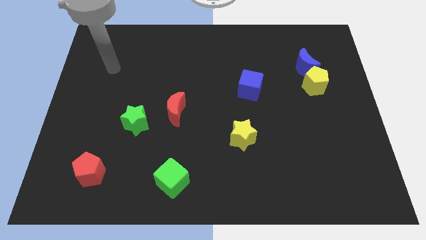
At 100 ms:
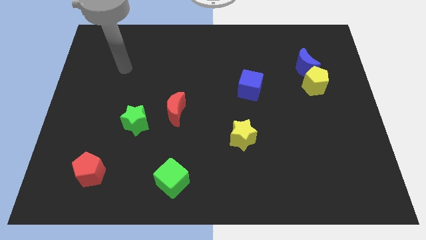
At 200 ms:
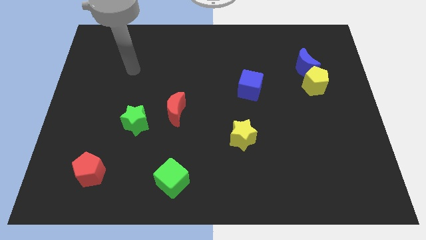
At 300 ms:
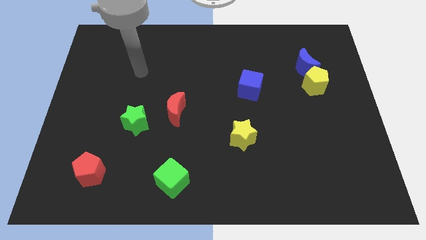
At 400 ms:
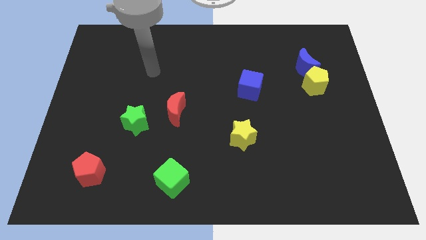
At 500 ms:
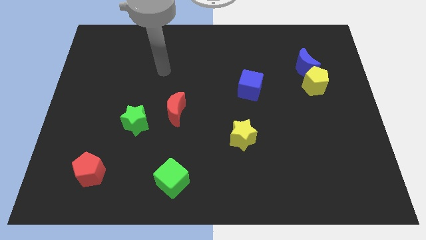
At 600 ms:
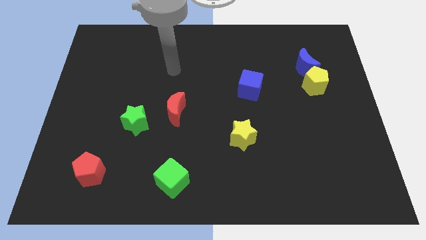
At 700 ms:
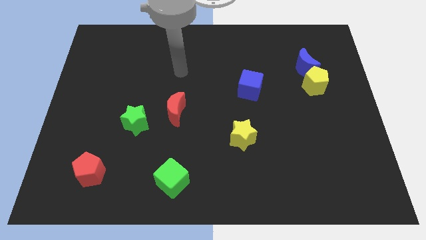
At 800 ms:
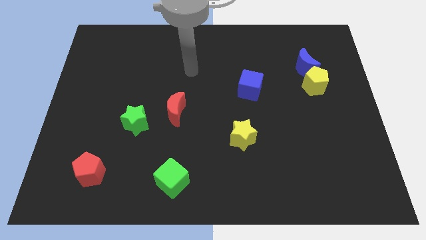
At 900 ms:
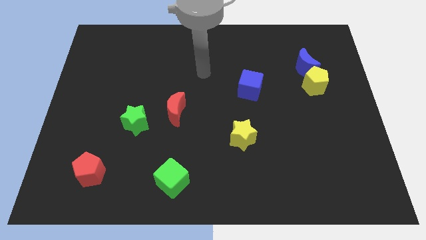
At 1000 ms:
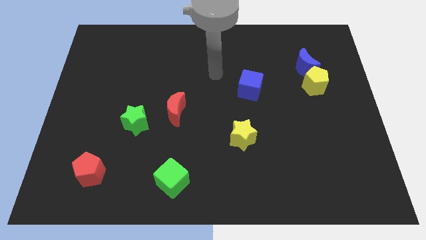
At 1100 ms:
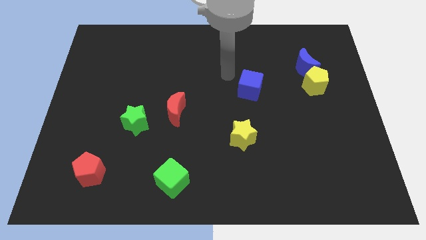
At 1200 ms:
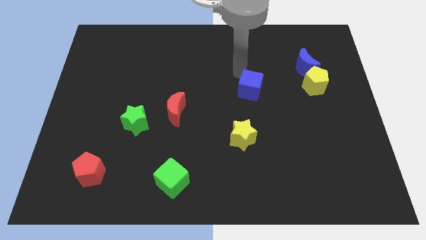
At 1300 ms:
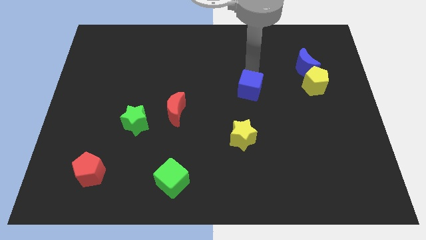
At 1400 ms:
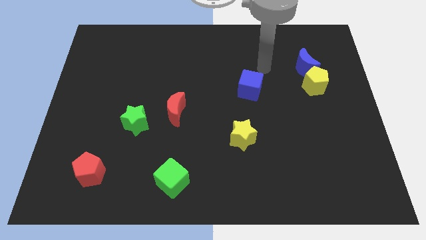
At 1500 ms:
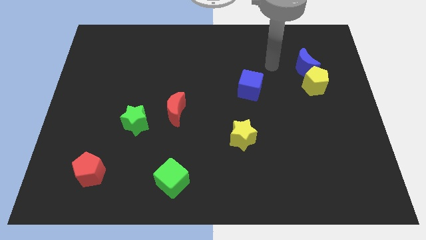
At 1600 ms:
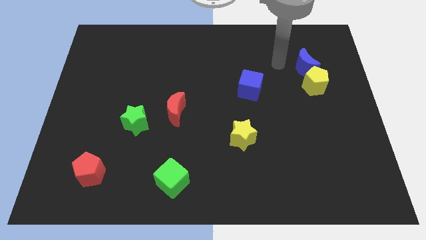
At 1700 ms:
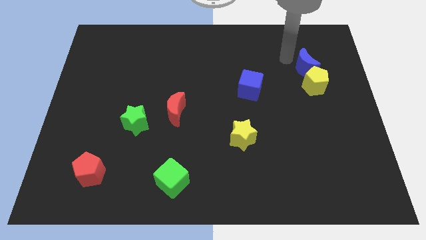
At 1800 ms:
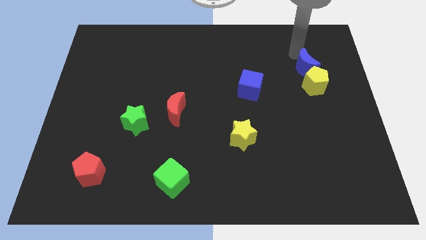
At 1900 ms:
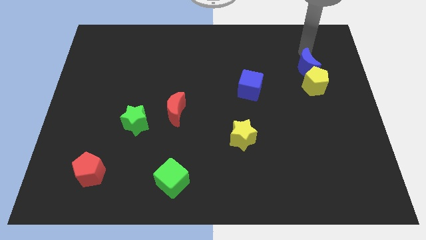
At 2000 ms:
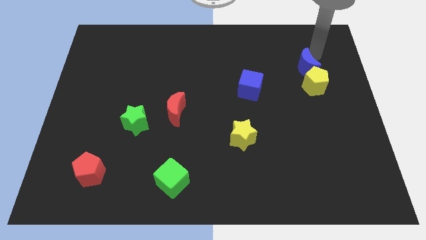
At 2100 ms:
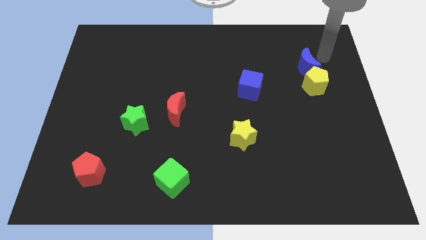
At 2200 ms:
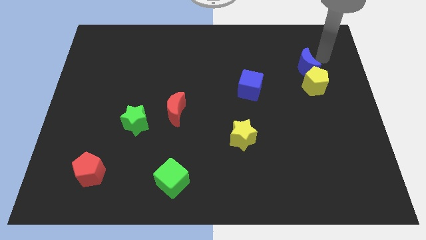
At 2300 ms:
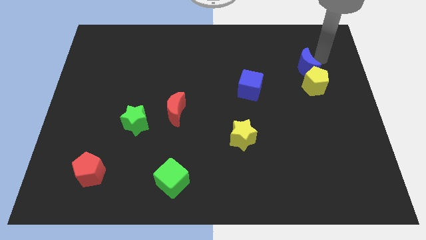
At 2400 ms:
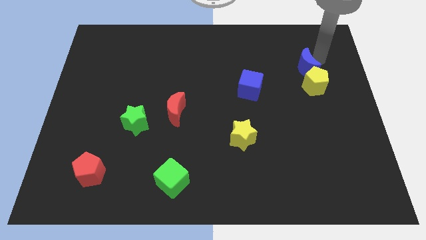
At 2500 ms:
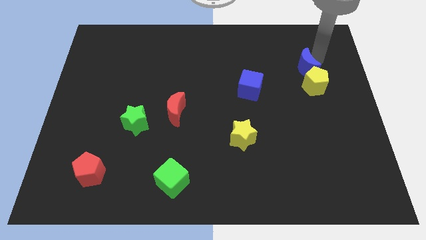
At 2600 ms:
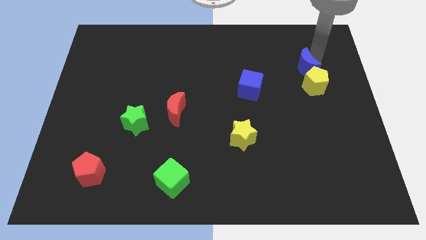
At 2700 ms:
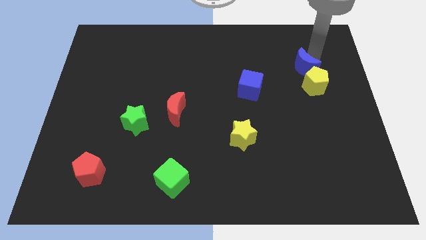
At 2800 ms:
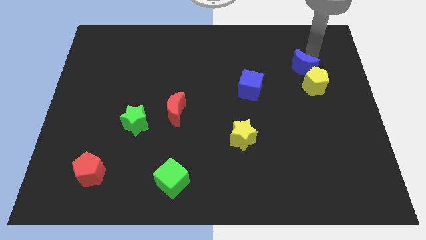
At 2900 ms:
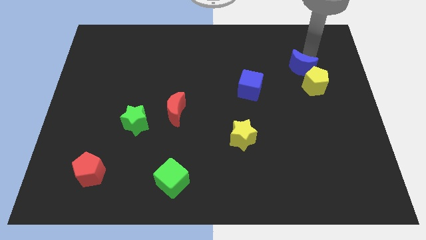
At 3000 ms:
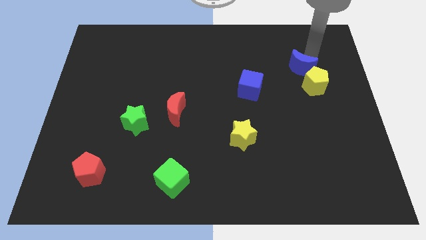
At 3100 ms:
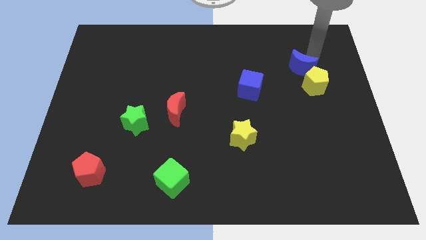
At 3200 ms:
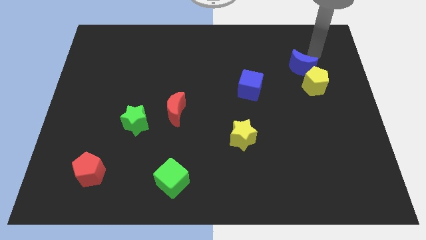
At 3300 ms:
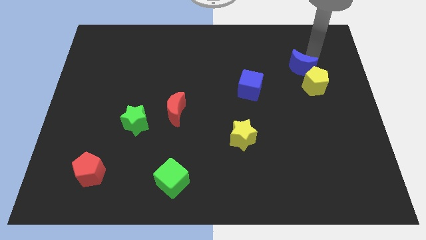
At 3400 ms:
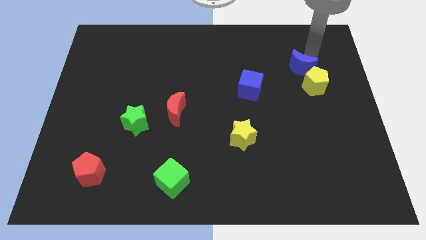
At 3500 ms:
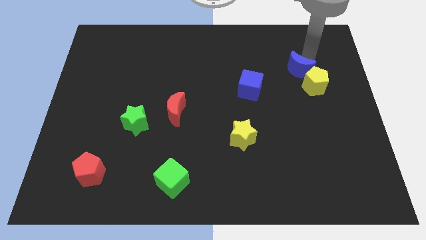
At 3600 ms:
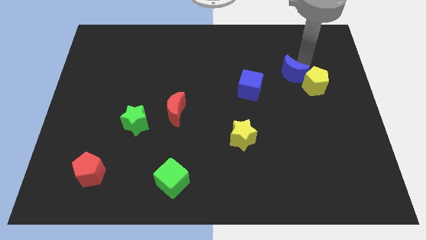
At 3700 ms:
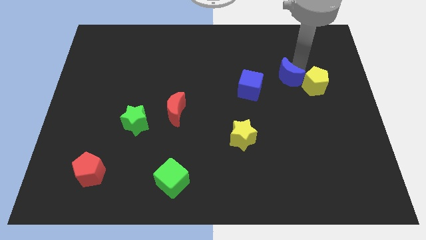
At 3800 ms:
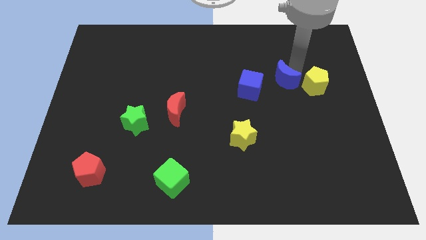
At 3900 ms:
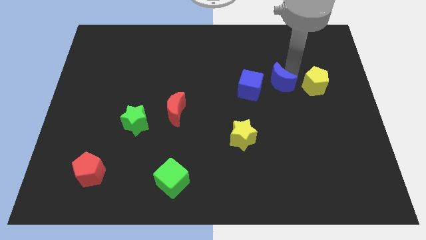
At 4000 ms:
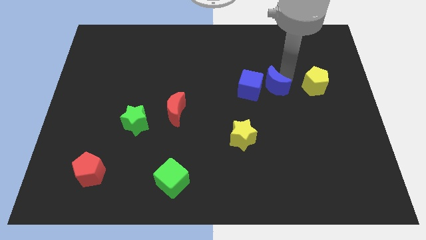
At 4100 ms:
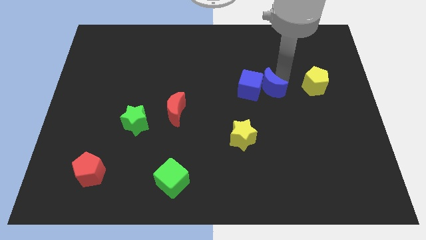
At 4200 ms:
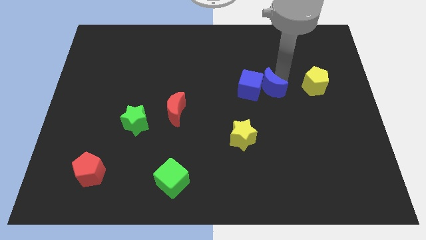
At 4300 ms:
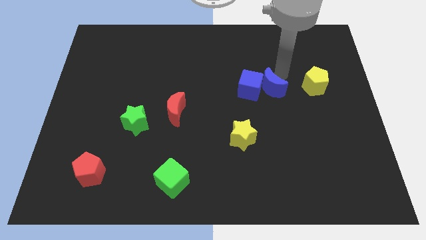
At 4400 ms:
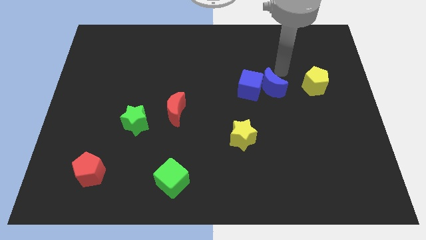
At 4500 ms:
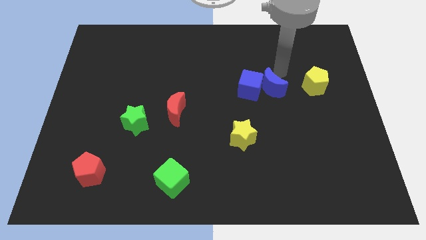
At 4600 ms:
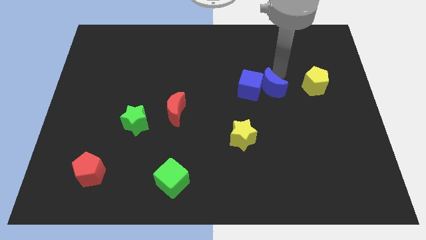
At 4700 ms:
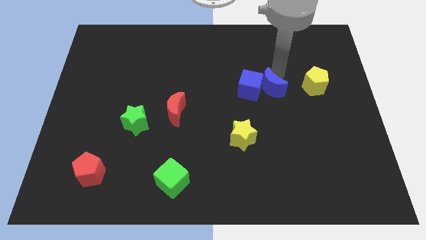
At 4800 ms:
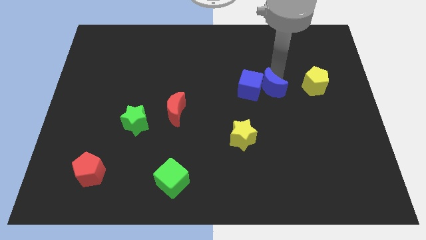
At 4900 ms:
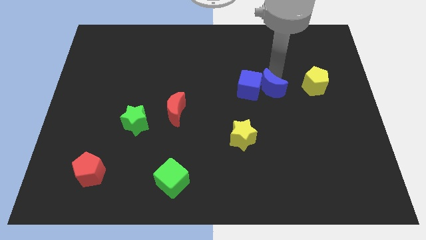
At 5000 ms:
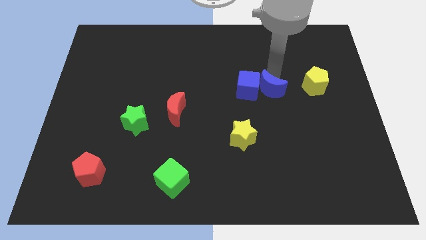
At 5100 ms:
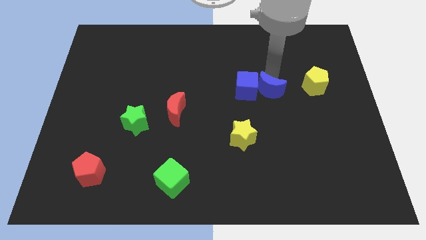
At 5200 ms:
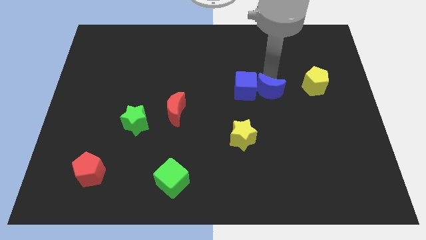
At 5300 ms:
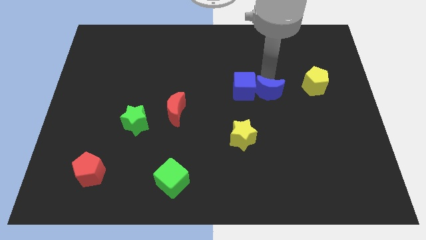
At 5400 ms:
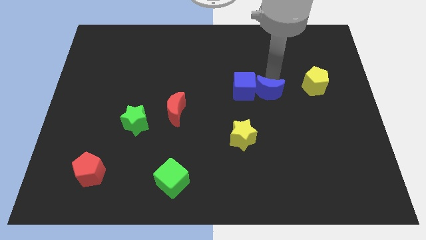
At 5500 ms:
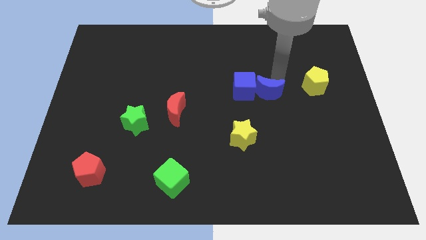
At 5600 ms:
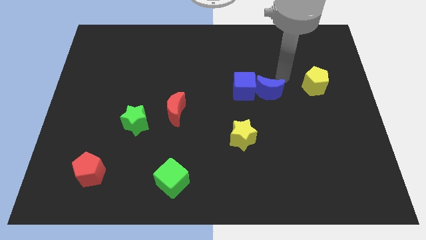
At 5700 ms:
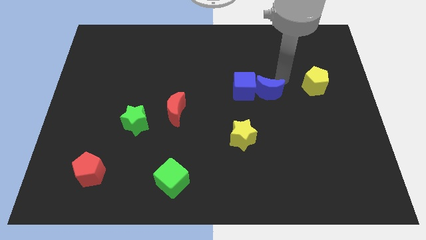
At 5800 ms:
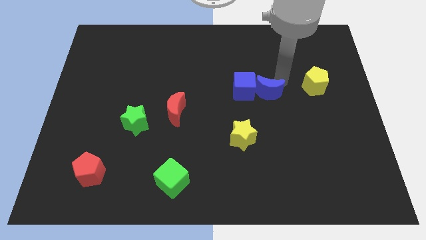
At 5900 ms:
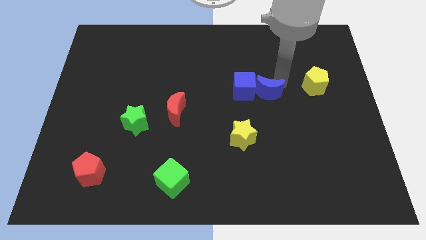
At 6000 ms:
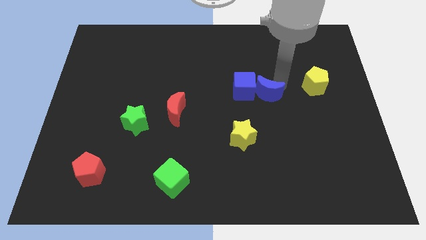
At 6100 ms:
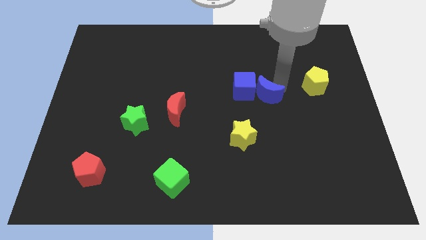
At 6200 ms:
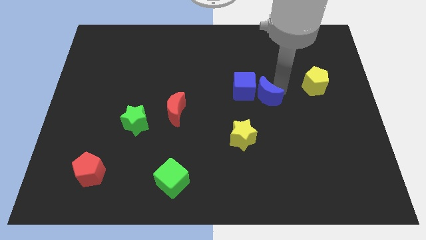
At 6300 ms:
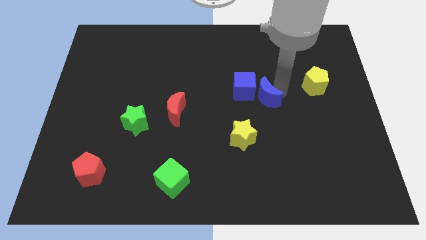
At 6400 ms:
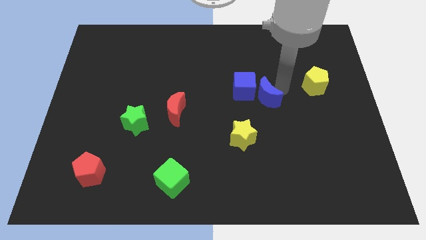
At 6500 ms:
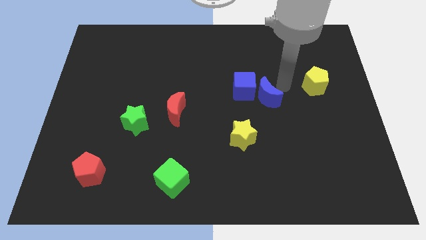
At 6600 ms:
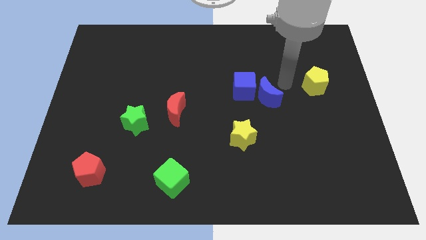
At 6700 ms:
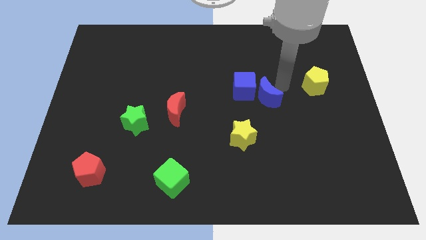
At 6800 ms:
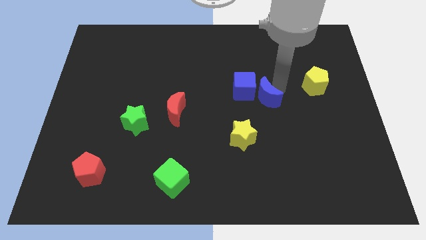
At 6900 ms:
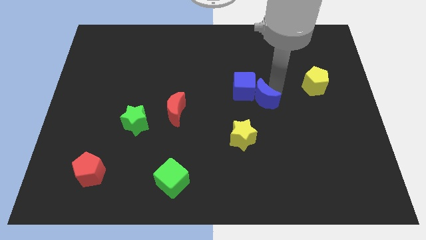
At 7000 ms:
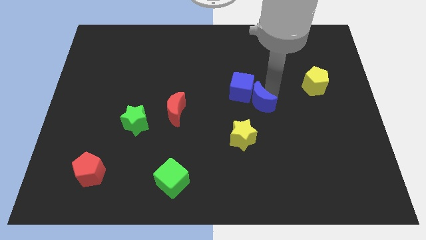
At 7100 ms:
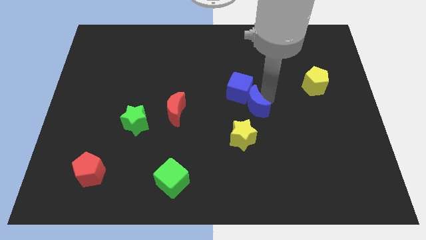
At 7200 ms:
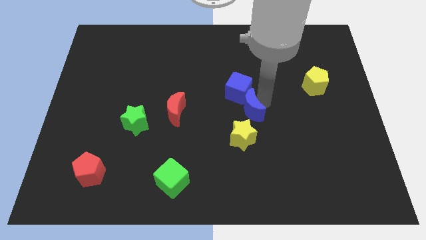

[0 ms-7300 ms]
push the blue moon down and to the left diagonally

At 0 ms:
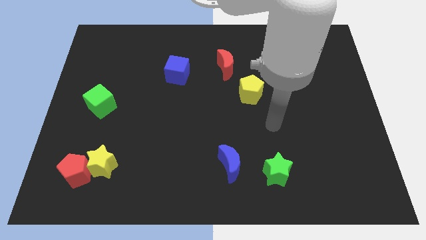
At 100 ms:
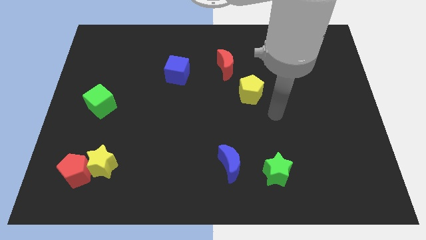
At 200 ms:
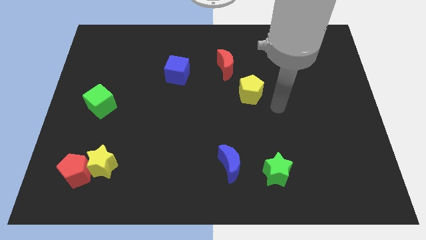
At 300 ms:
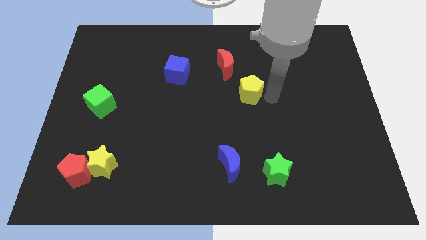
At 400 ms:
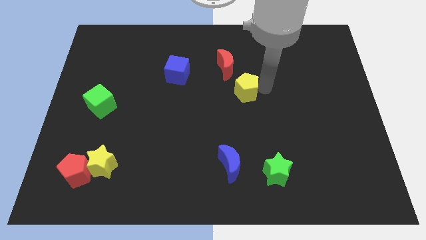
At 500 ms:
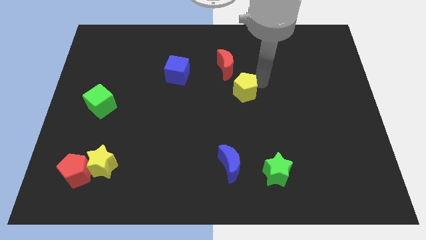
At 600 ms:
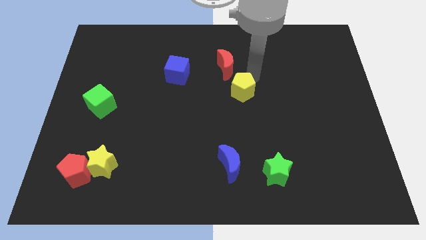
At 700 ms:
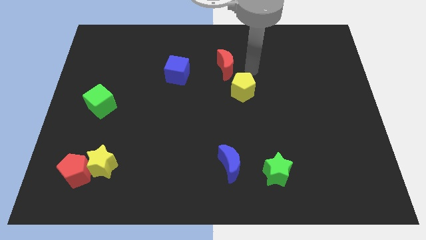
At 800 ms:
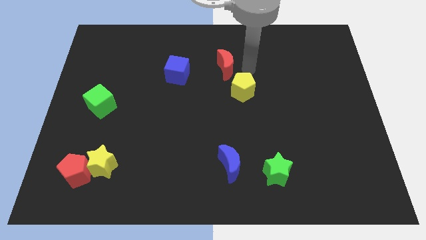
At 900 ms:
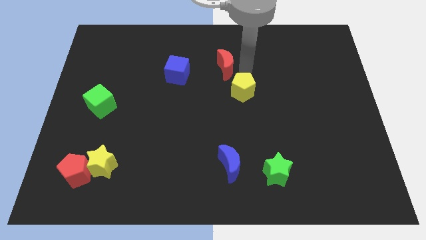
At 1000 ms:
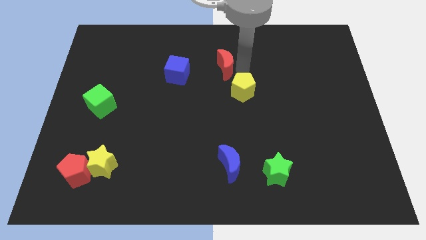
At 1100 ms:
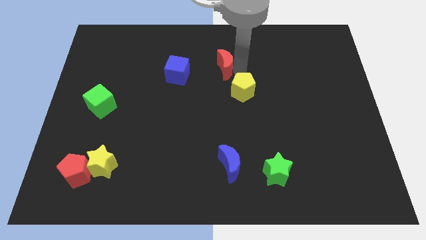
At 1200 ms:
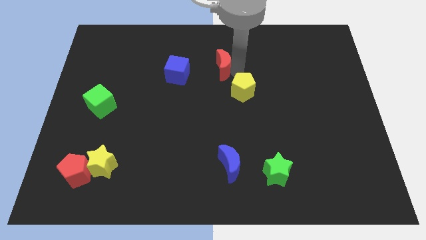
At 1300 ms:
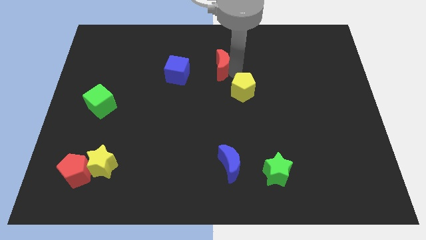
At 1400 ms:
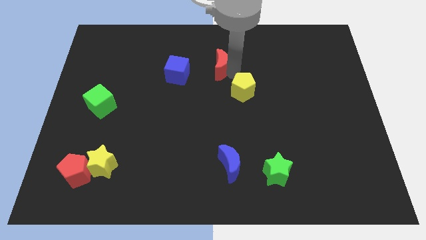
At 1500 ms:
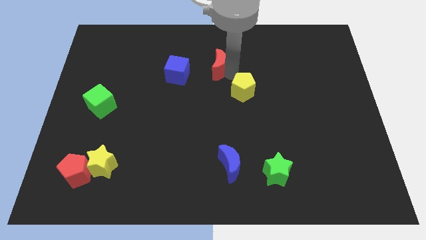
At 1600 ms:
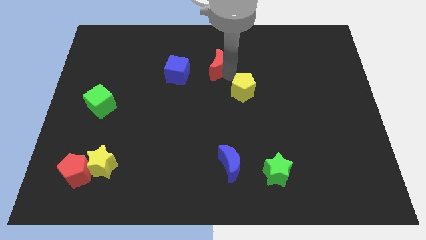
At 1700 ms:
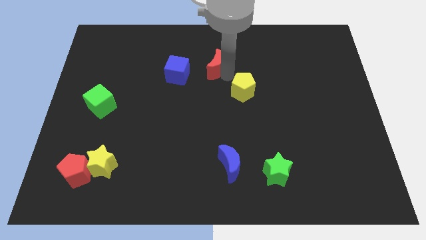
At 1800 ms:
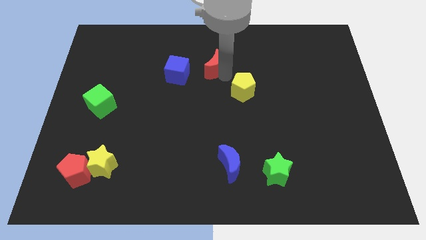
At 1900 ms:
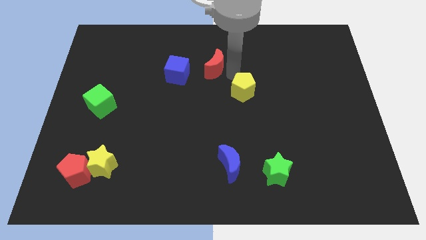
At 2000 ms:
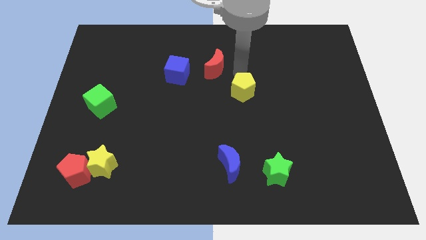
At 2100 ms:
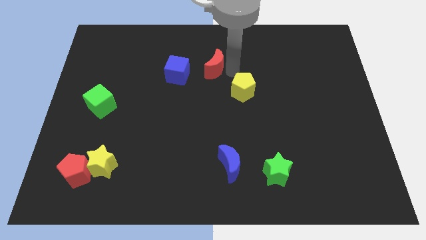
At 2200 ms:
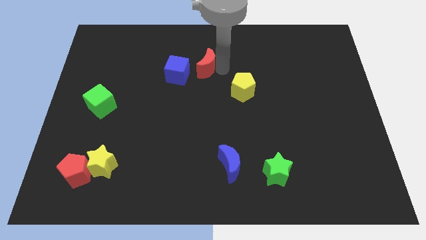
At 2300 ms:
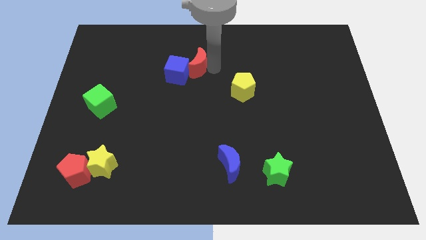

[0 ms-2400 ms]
slide the red moon a bit left
